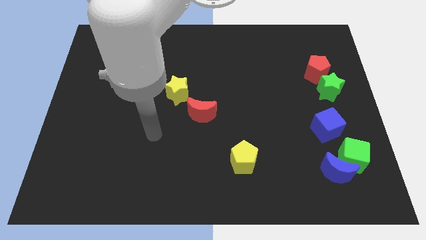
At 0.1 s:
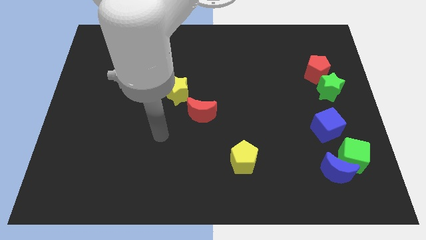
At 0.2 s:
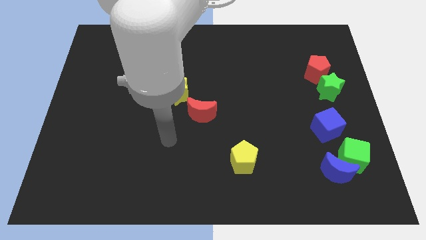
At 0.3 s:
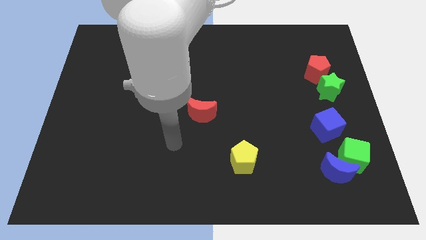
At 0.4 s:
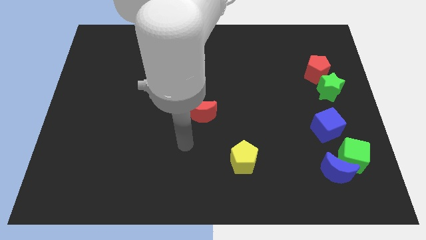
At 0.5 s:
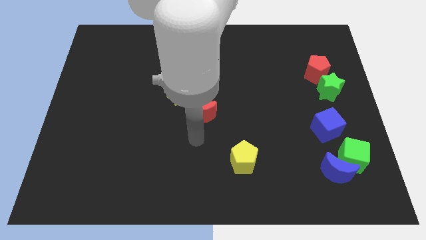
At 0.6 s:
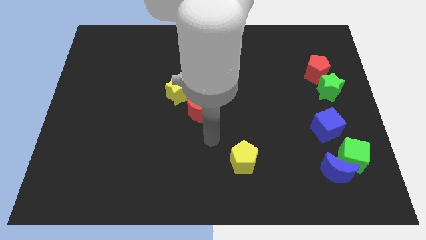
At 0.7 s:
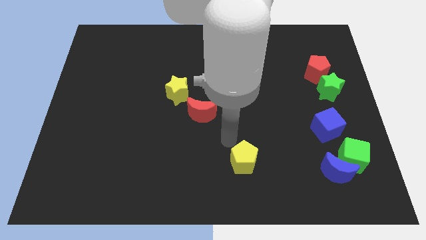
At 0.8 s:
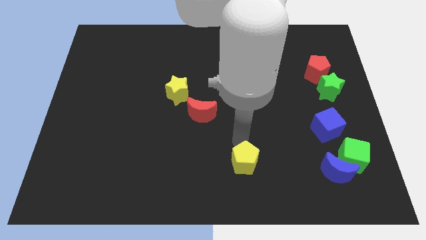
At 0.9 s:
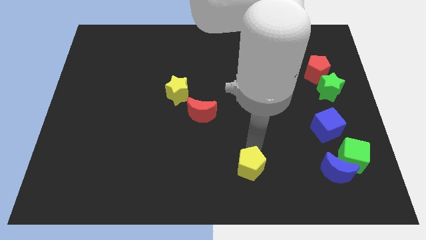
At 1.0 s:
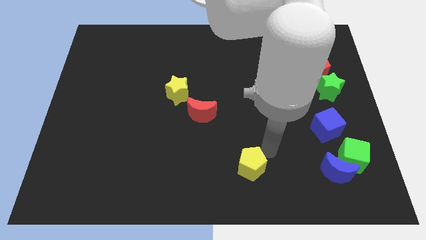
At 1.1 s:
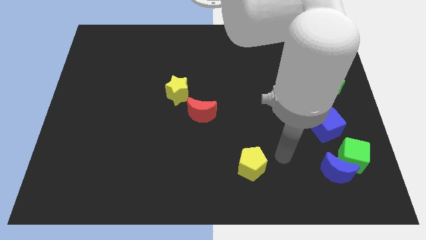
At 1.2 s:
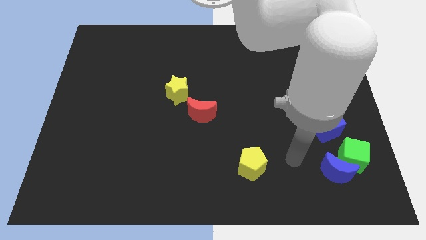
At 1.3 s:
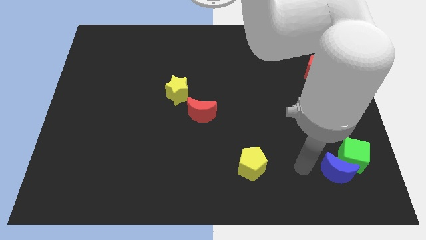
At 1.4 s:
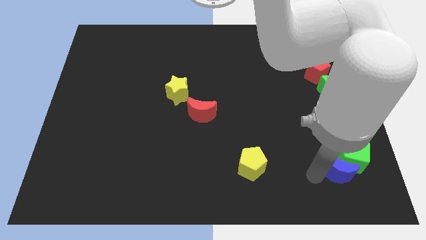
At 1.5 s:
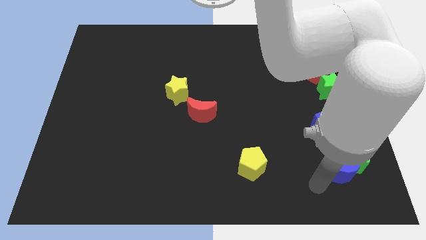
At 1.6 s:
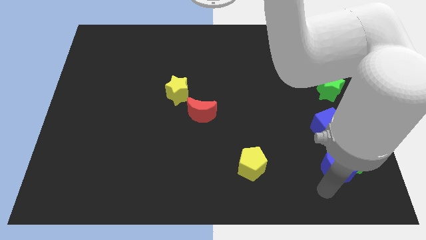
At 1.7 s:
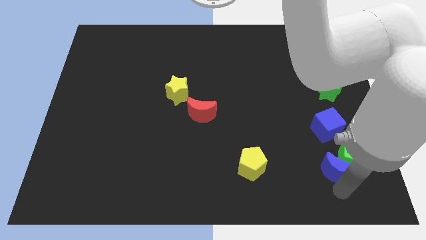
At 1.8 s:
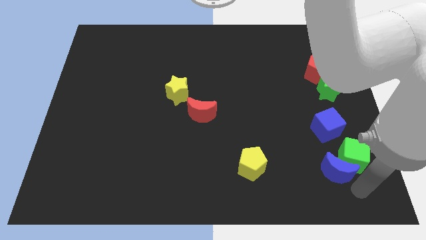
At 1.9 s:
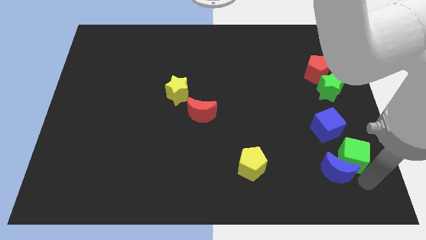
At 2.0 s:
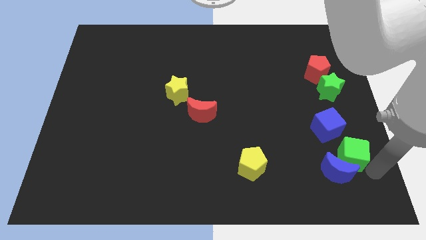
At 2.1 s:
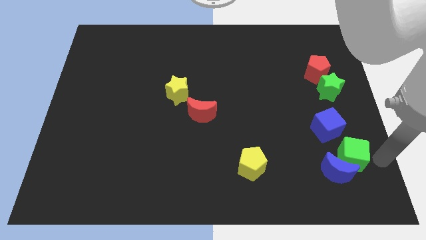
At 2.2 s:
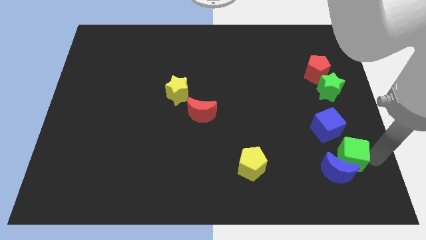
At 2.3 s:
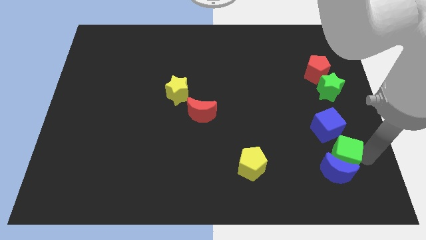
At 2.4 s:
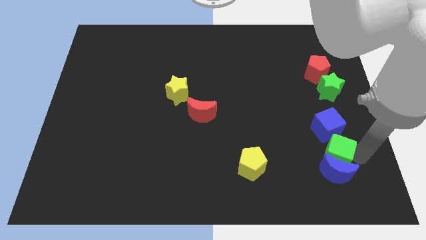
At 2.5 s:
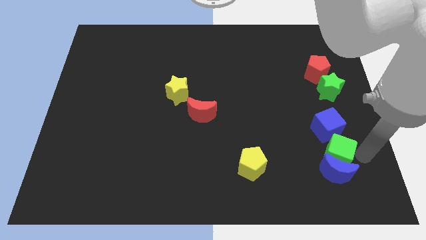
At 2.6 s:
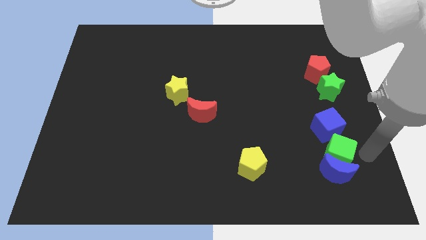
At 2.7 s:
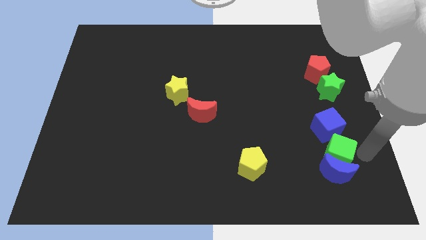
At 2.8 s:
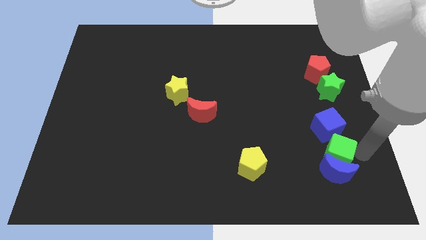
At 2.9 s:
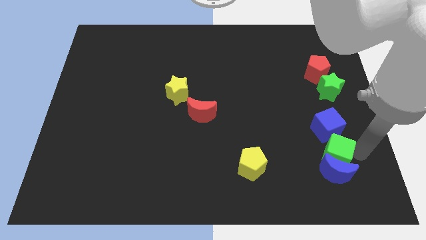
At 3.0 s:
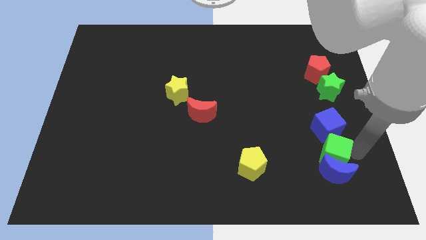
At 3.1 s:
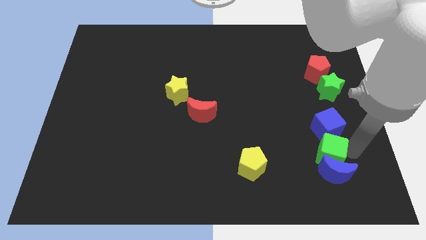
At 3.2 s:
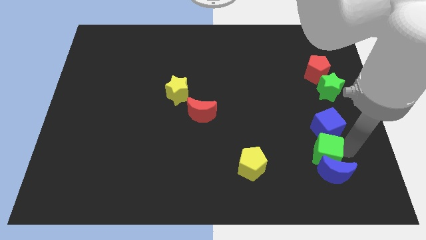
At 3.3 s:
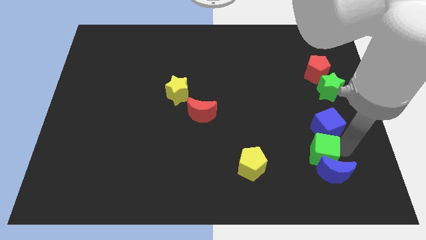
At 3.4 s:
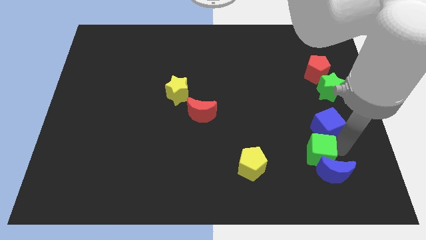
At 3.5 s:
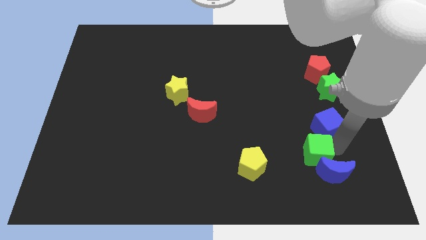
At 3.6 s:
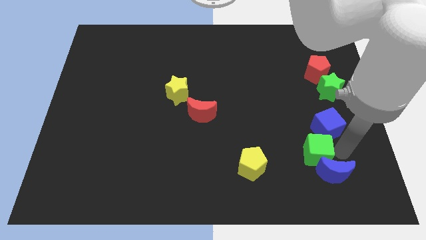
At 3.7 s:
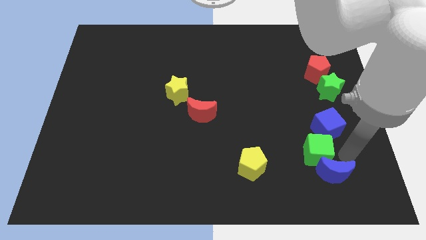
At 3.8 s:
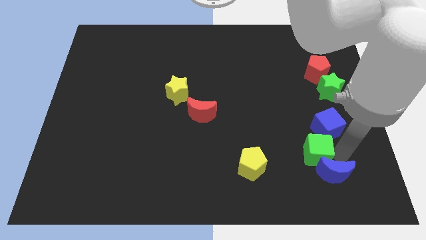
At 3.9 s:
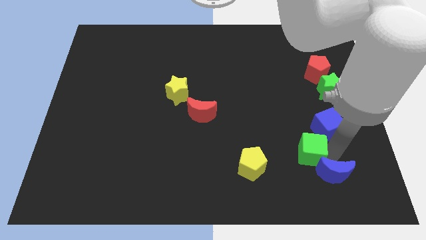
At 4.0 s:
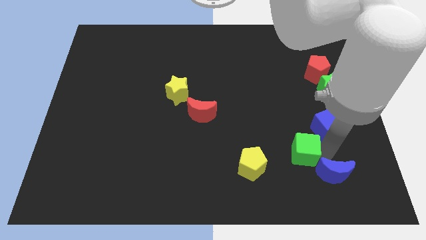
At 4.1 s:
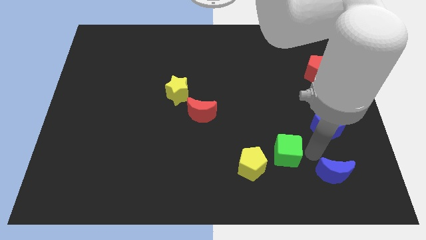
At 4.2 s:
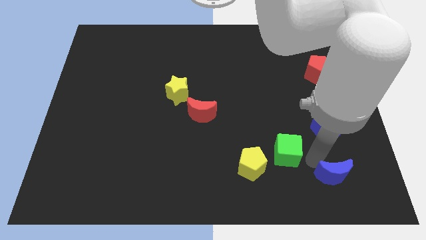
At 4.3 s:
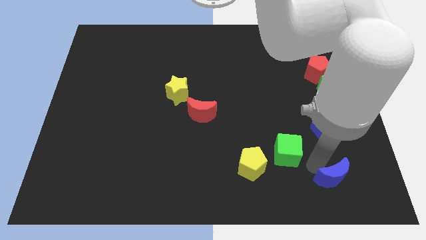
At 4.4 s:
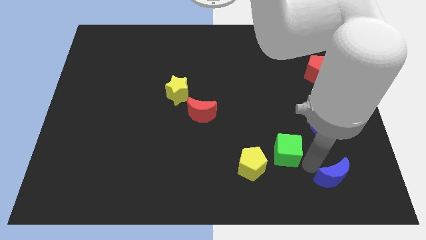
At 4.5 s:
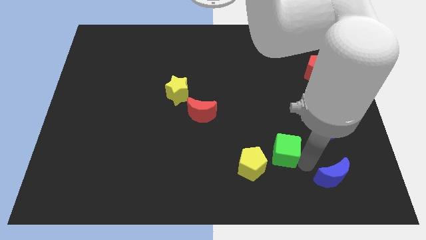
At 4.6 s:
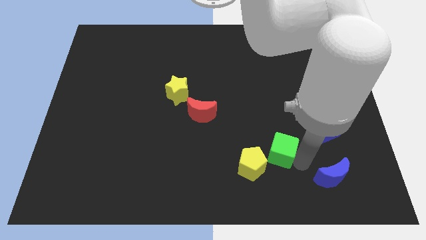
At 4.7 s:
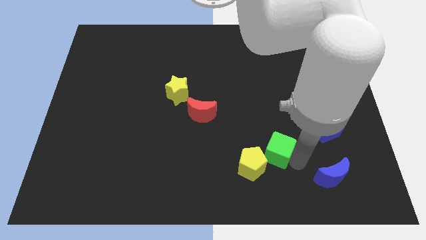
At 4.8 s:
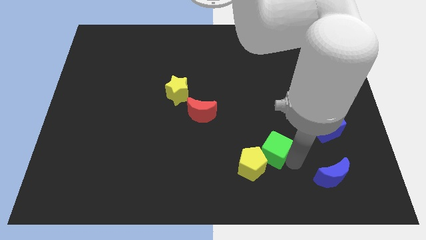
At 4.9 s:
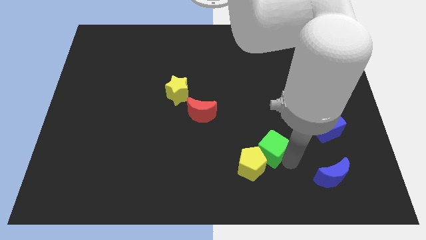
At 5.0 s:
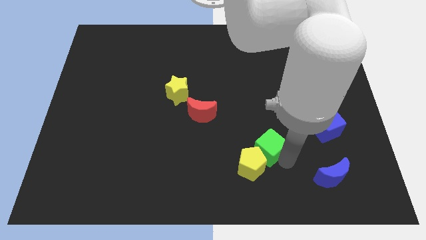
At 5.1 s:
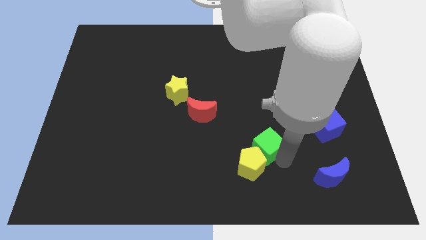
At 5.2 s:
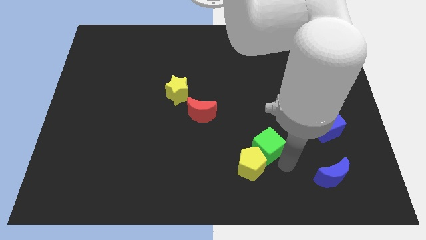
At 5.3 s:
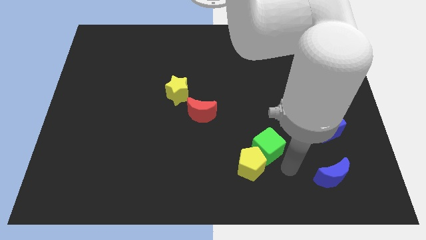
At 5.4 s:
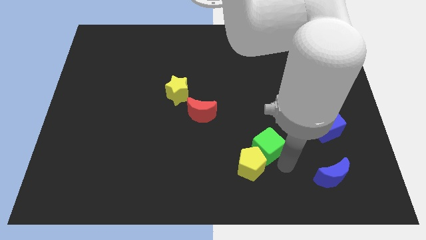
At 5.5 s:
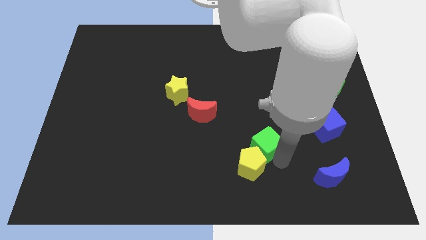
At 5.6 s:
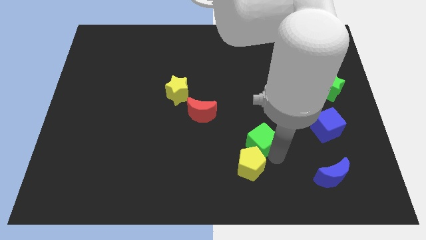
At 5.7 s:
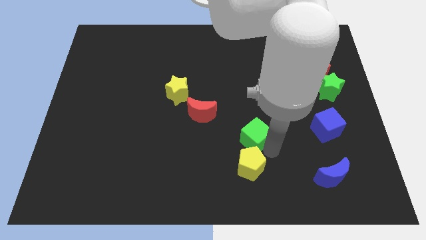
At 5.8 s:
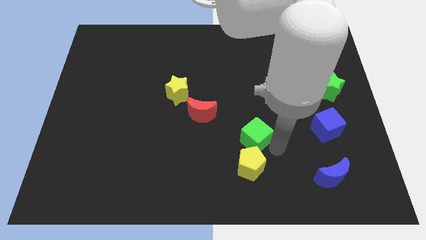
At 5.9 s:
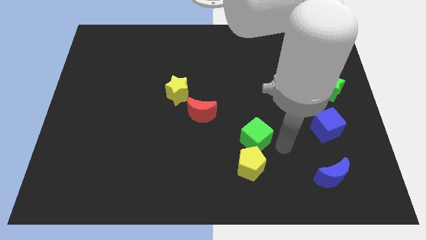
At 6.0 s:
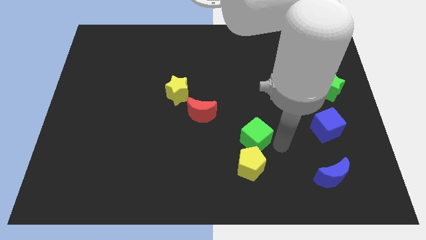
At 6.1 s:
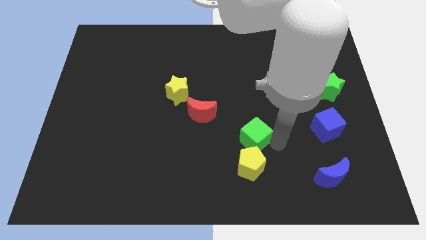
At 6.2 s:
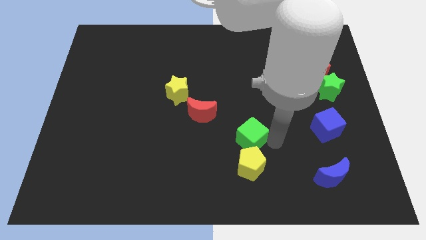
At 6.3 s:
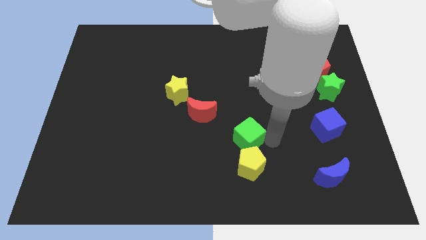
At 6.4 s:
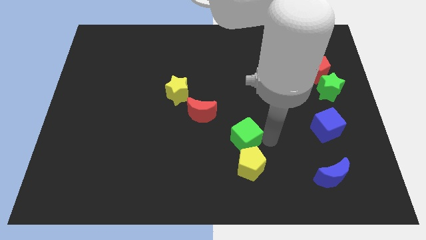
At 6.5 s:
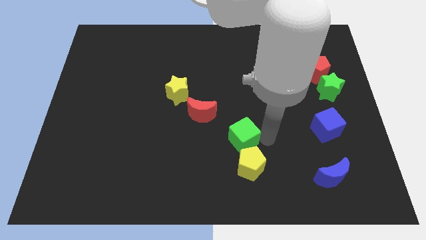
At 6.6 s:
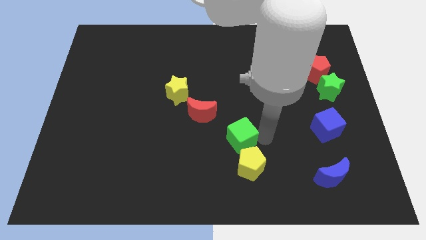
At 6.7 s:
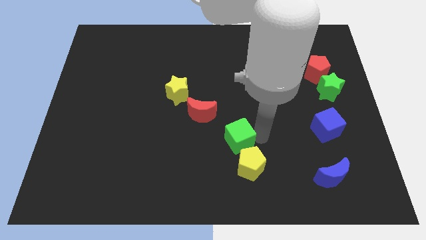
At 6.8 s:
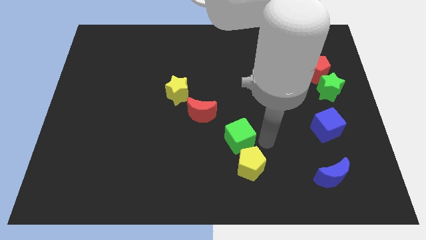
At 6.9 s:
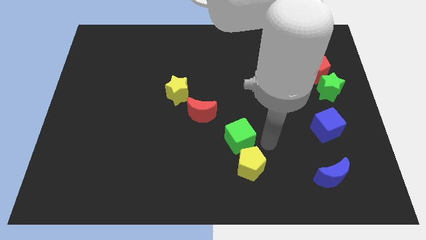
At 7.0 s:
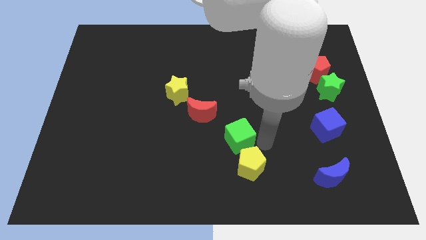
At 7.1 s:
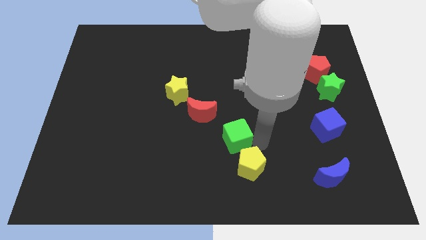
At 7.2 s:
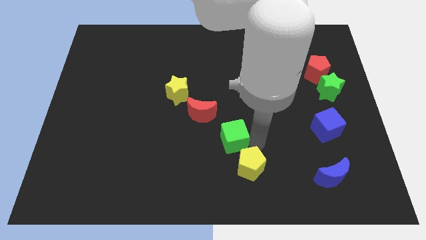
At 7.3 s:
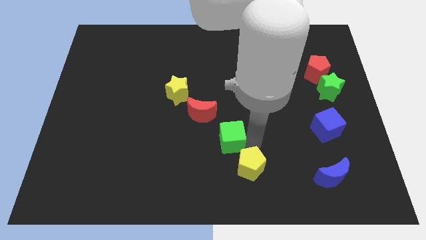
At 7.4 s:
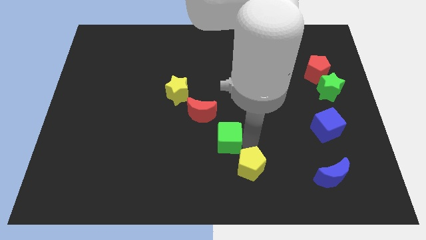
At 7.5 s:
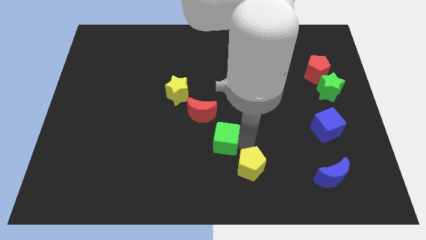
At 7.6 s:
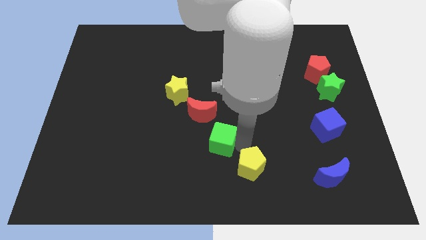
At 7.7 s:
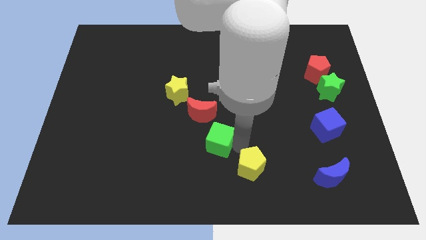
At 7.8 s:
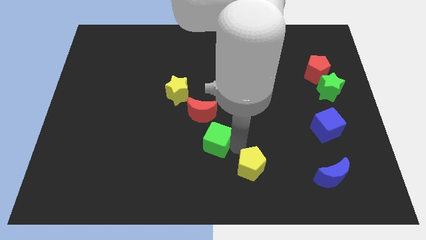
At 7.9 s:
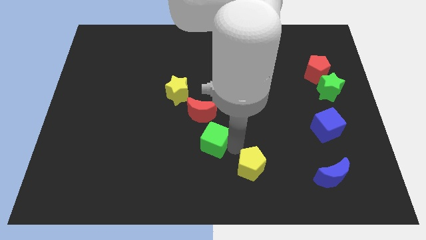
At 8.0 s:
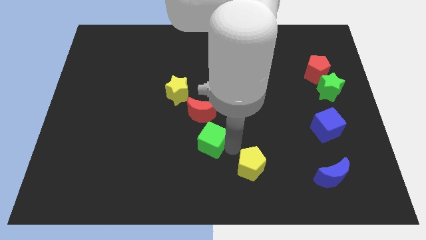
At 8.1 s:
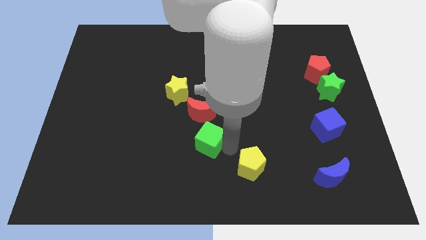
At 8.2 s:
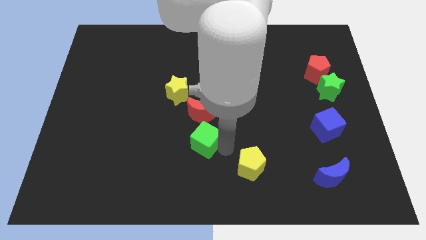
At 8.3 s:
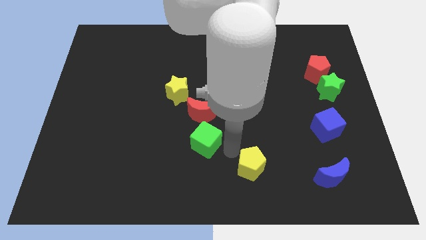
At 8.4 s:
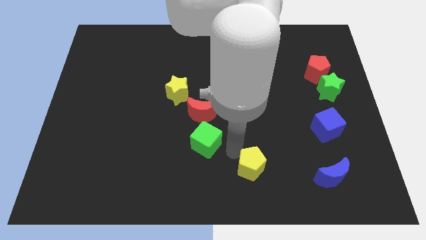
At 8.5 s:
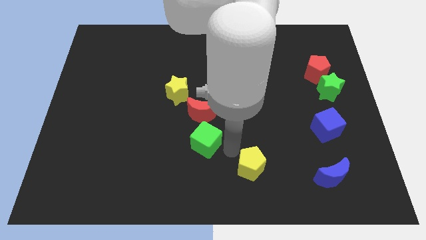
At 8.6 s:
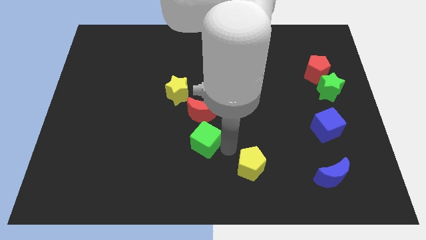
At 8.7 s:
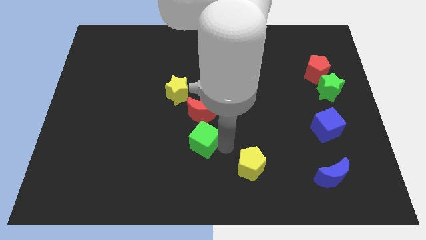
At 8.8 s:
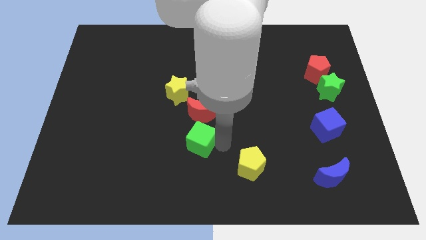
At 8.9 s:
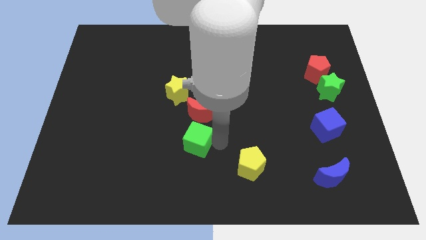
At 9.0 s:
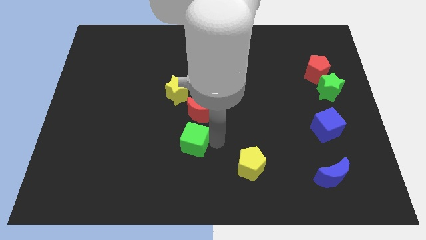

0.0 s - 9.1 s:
put the green cube to the bottom left side of the red moon
